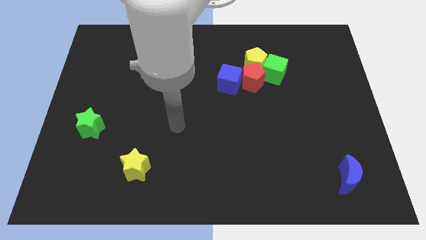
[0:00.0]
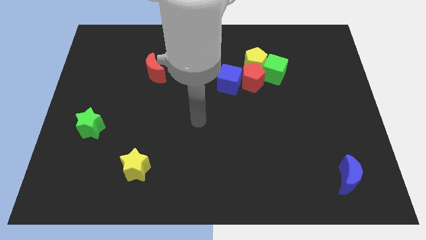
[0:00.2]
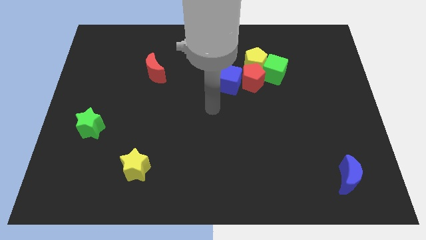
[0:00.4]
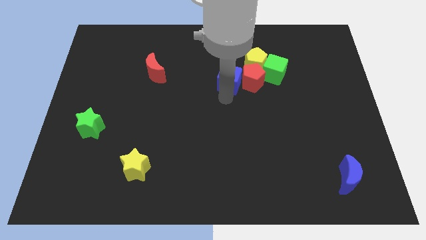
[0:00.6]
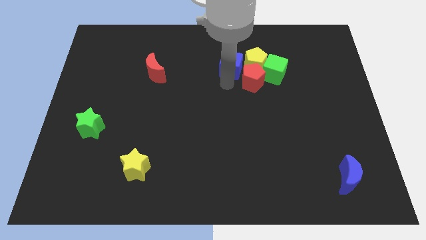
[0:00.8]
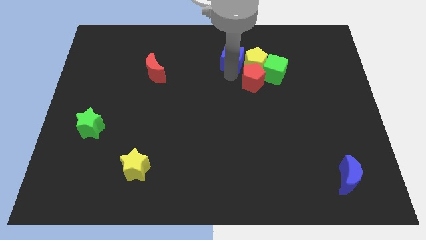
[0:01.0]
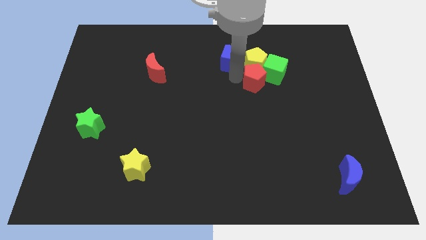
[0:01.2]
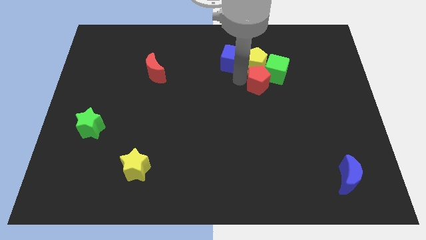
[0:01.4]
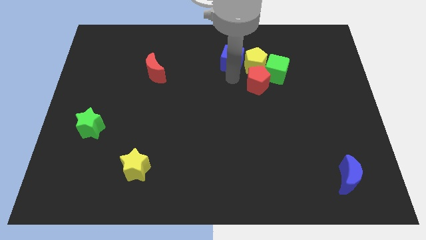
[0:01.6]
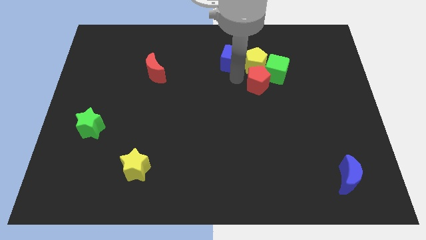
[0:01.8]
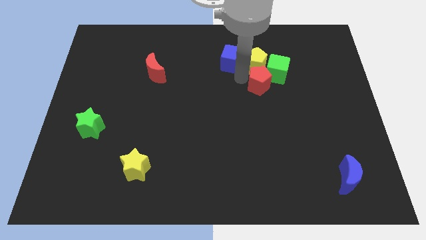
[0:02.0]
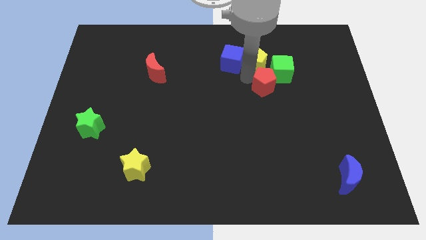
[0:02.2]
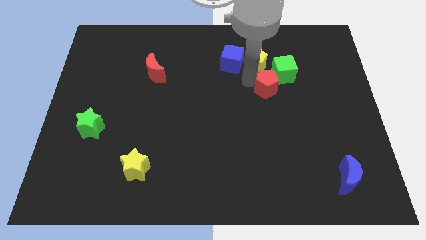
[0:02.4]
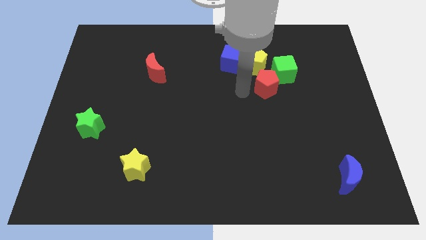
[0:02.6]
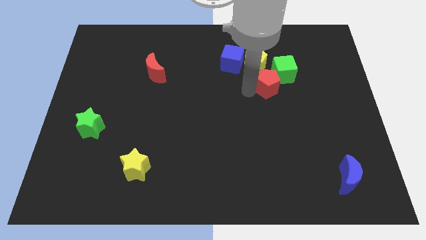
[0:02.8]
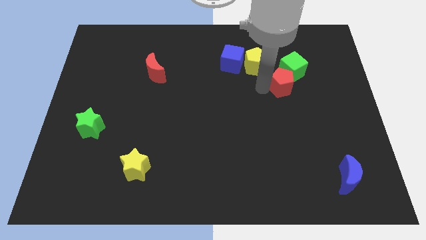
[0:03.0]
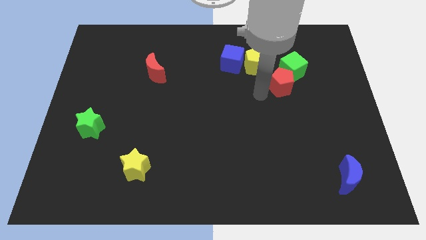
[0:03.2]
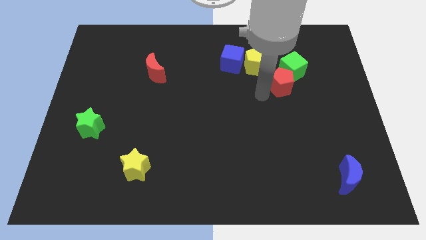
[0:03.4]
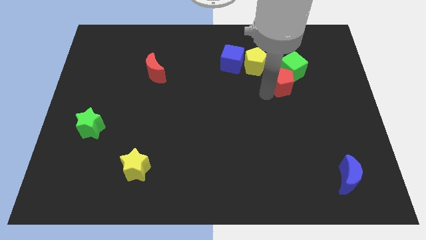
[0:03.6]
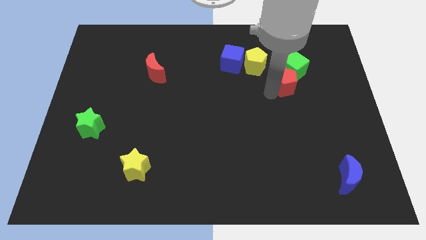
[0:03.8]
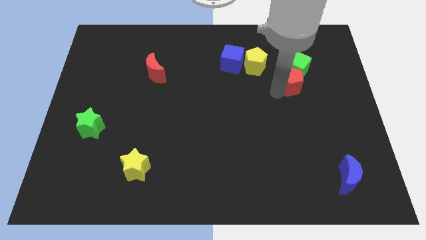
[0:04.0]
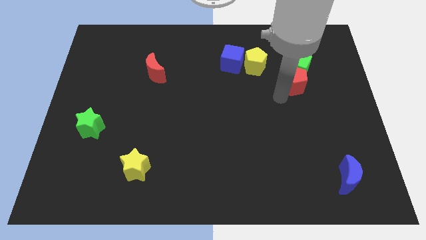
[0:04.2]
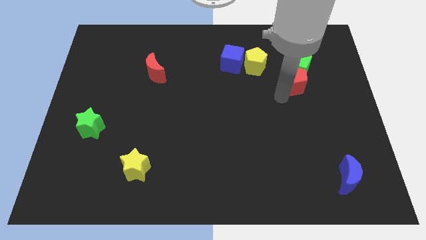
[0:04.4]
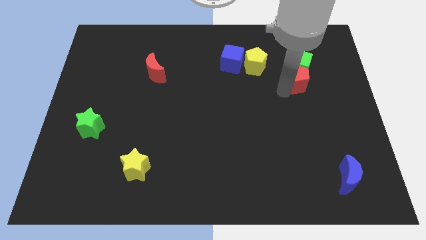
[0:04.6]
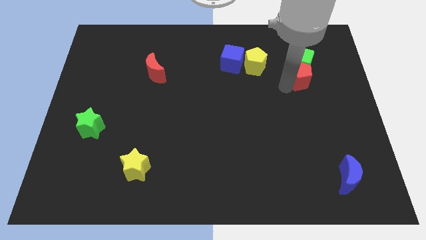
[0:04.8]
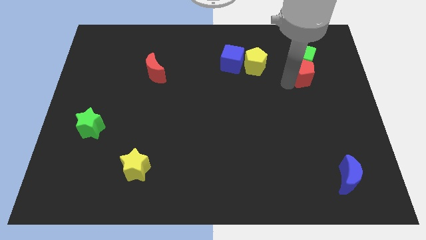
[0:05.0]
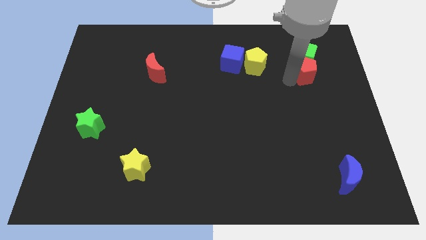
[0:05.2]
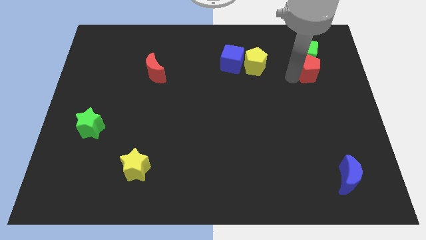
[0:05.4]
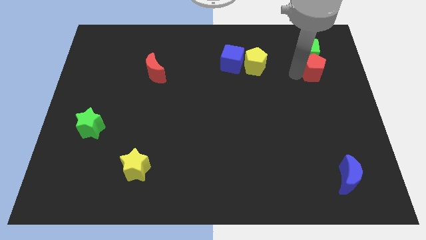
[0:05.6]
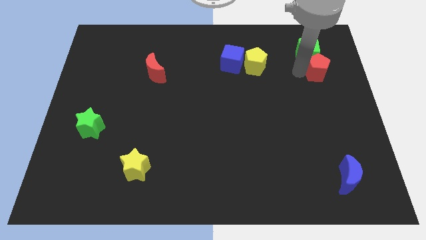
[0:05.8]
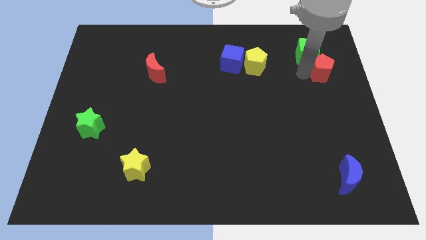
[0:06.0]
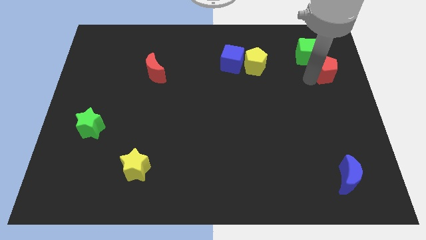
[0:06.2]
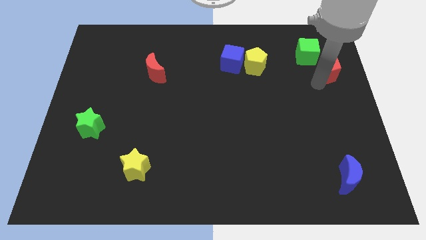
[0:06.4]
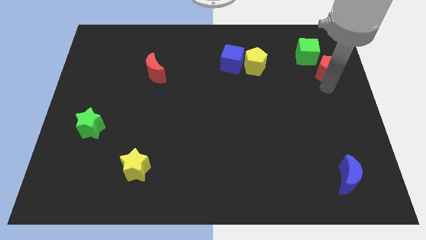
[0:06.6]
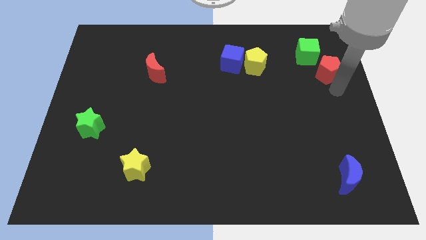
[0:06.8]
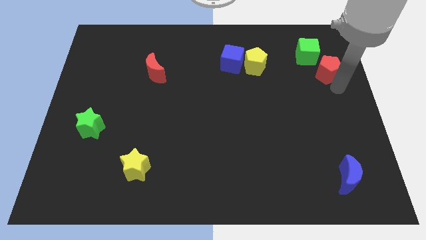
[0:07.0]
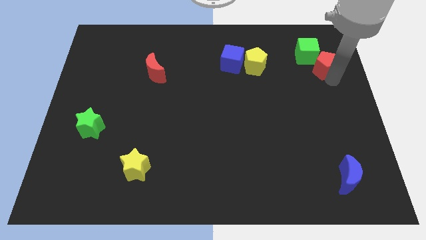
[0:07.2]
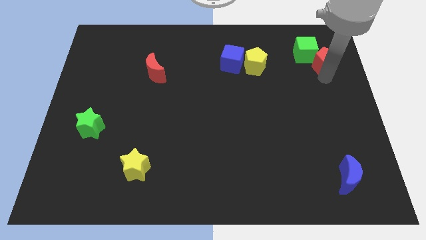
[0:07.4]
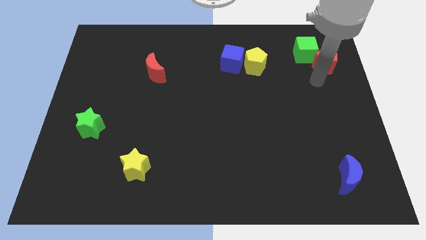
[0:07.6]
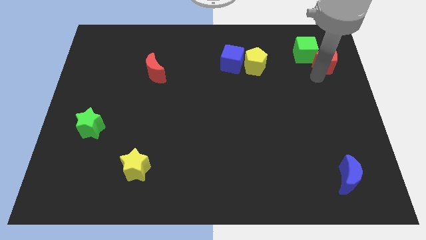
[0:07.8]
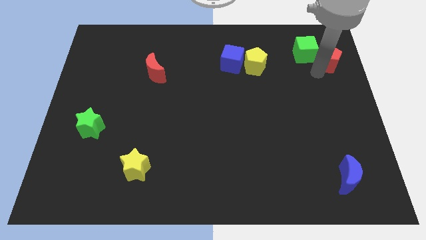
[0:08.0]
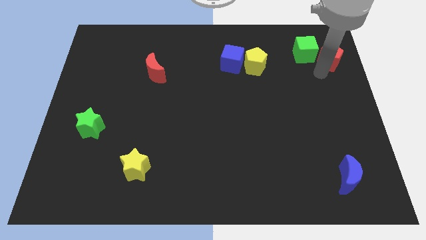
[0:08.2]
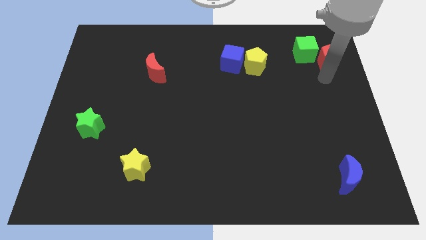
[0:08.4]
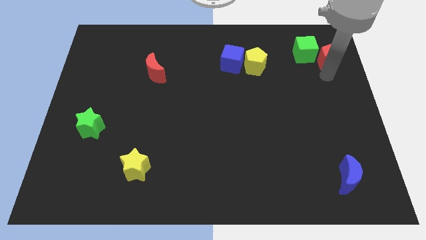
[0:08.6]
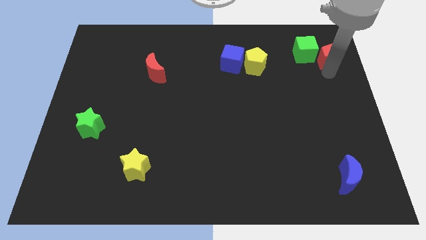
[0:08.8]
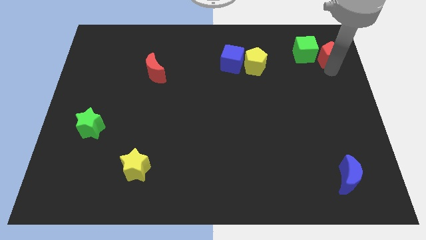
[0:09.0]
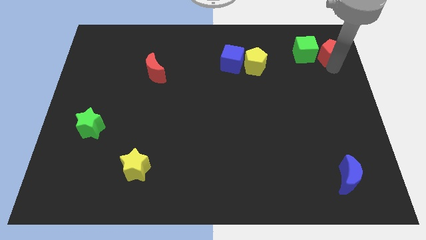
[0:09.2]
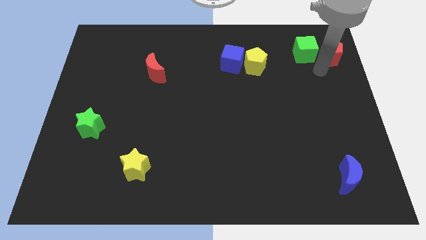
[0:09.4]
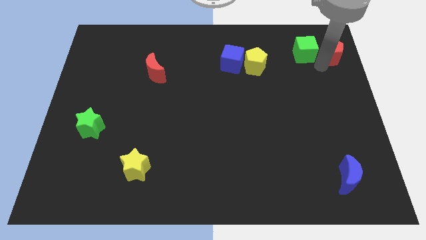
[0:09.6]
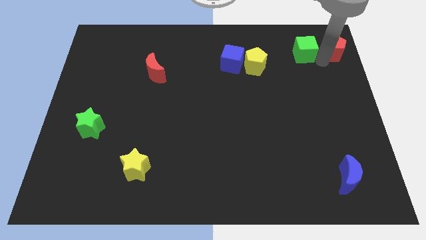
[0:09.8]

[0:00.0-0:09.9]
move the red pentagon to the upper right corner

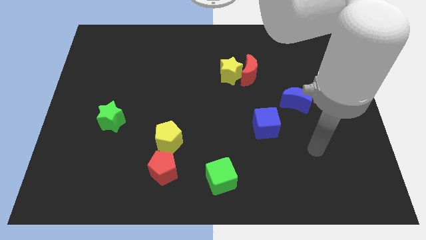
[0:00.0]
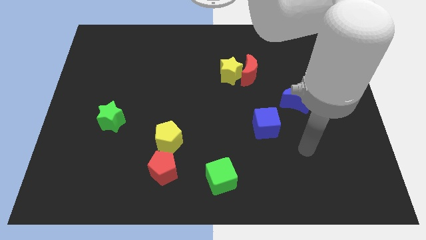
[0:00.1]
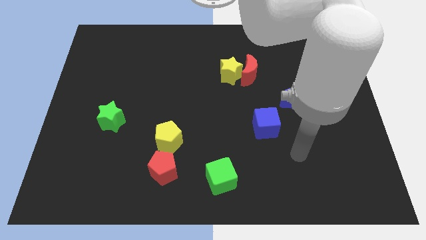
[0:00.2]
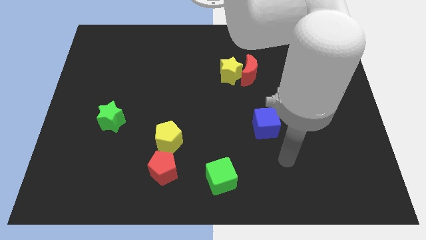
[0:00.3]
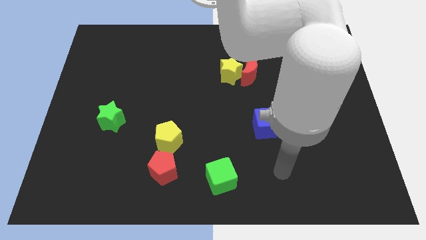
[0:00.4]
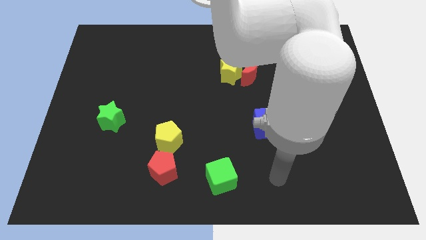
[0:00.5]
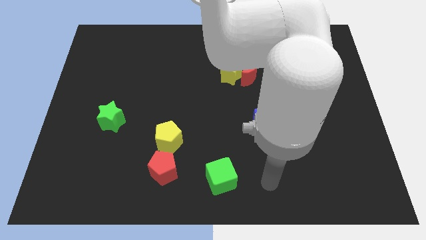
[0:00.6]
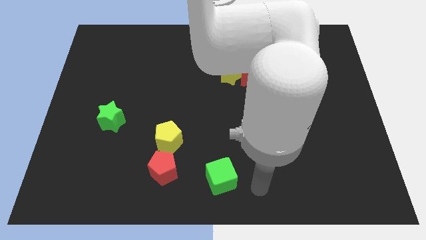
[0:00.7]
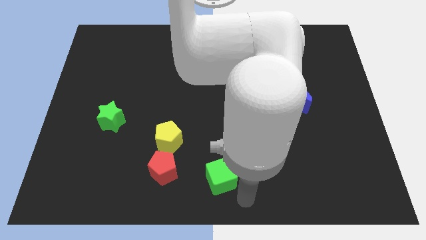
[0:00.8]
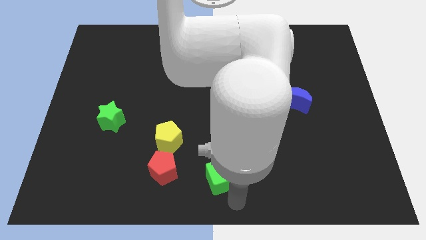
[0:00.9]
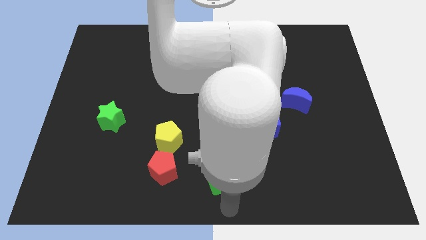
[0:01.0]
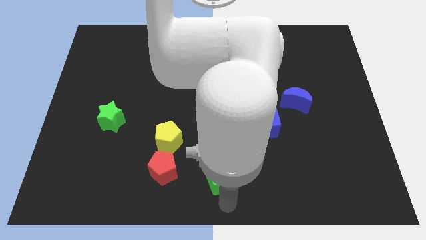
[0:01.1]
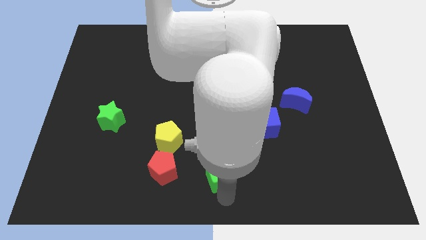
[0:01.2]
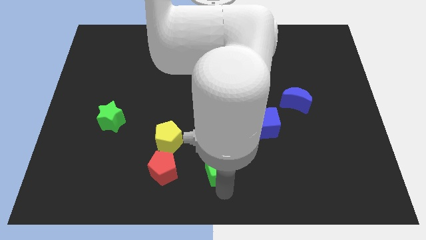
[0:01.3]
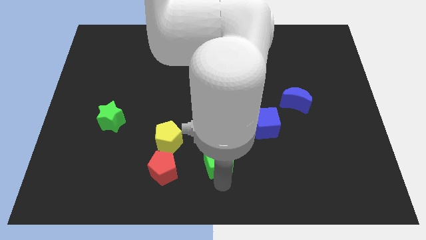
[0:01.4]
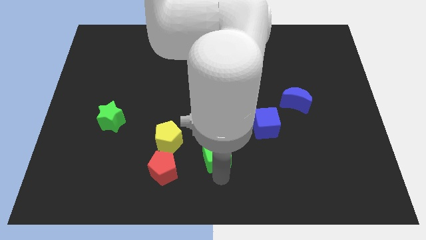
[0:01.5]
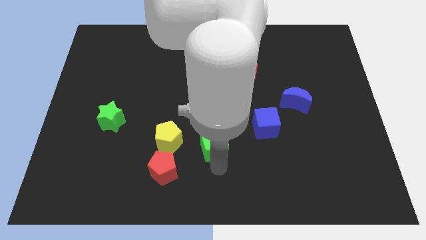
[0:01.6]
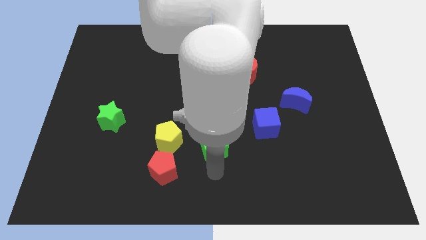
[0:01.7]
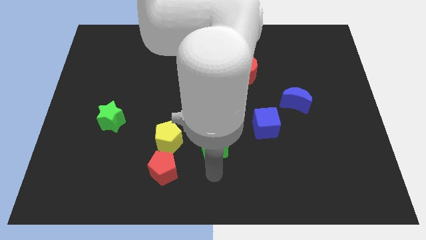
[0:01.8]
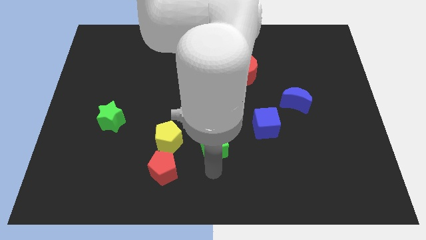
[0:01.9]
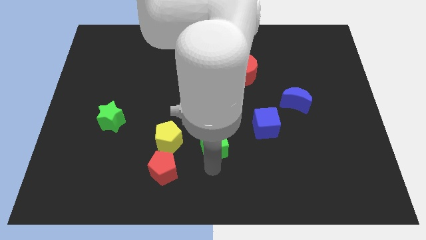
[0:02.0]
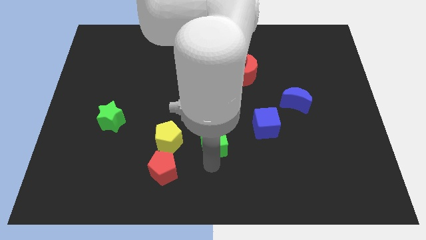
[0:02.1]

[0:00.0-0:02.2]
push the green cube to the center
